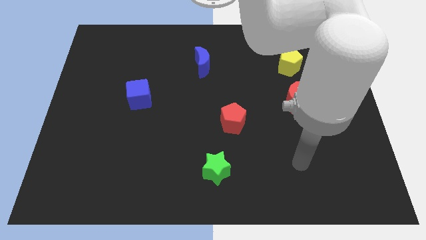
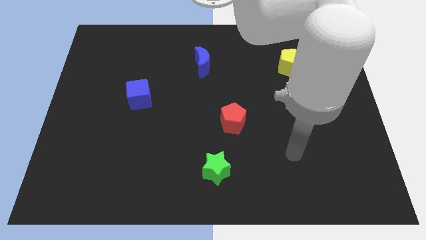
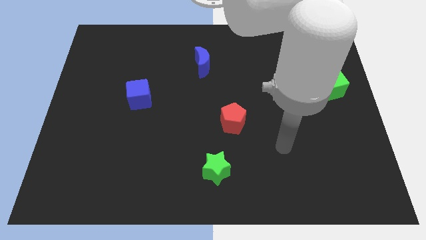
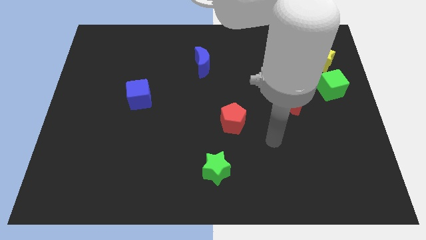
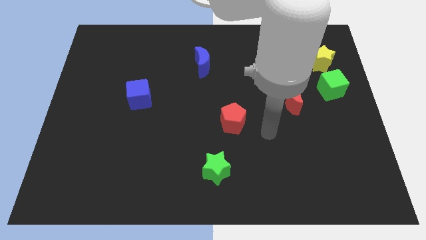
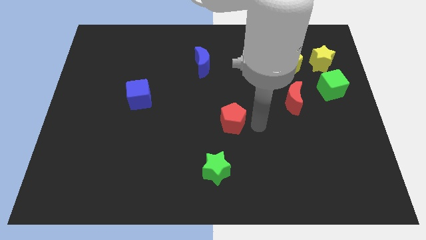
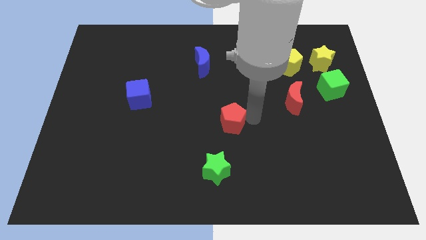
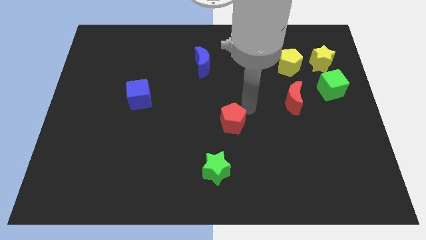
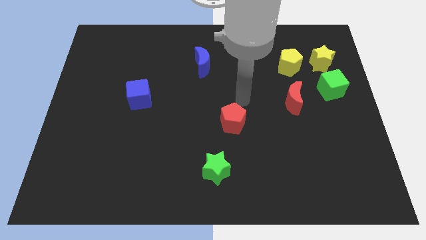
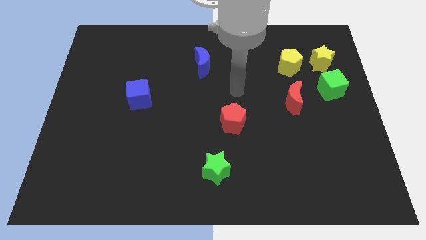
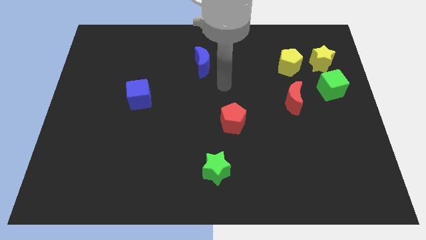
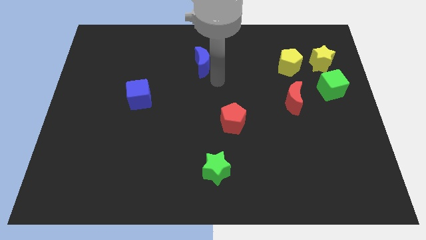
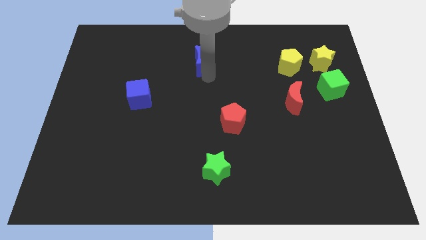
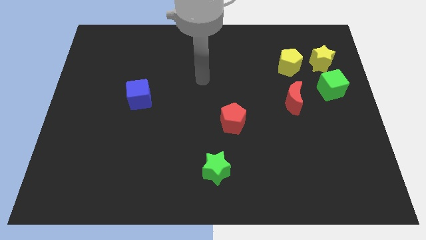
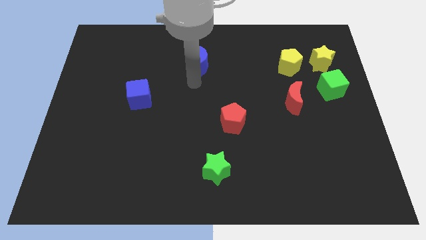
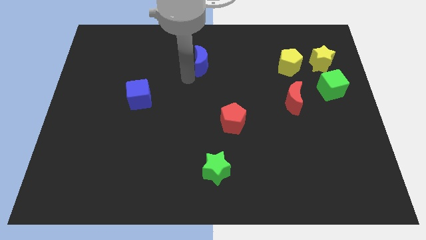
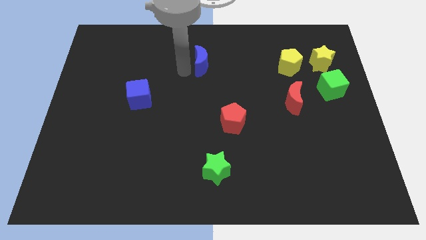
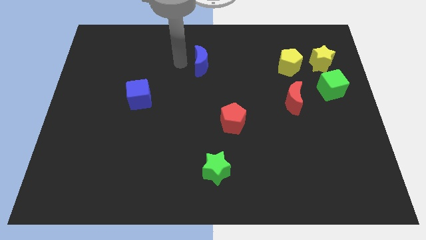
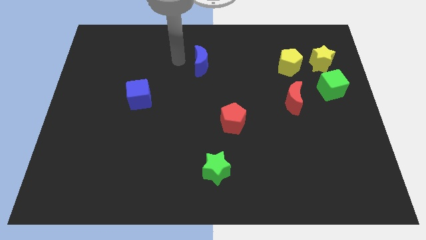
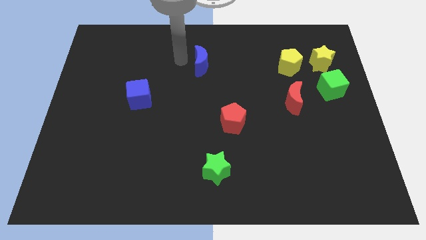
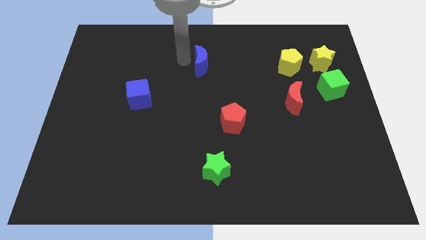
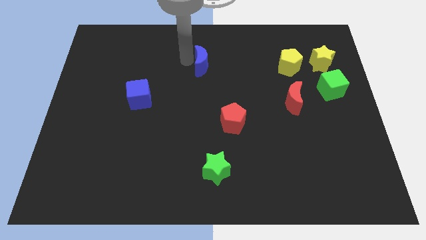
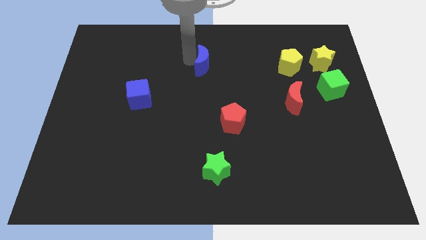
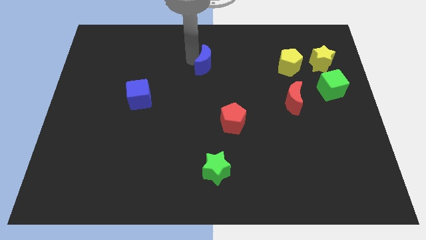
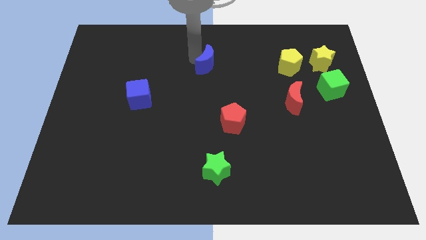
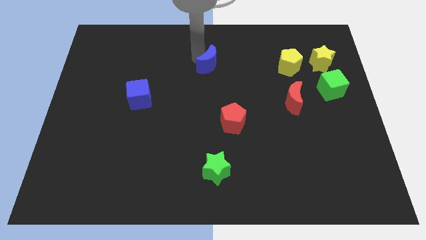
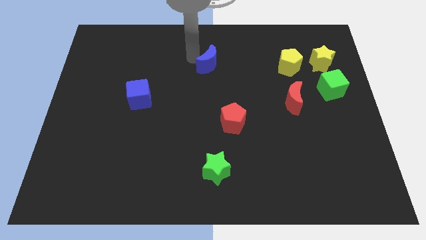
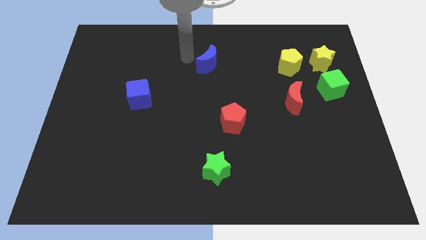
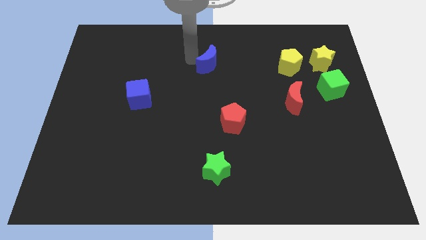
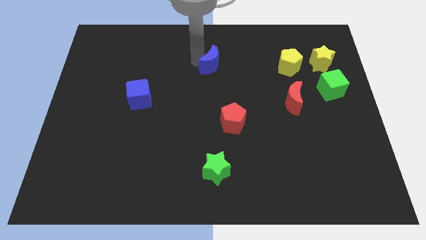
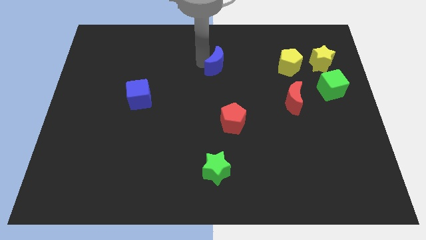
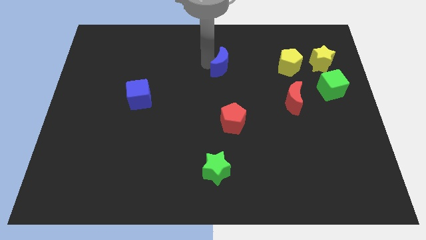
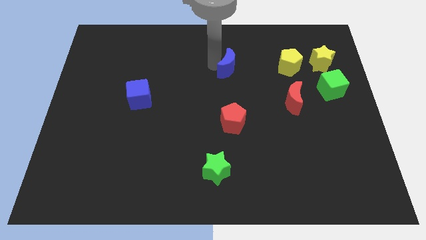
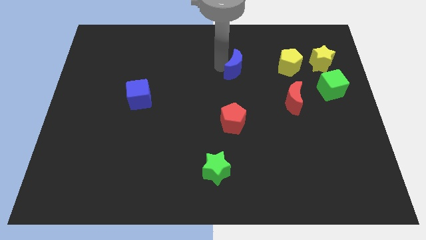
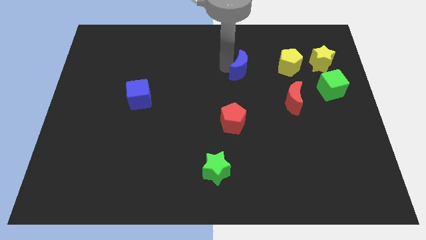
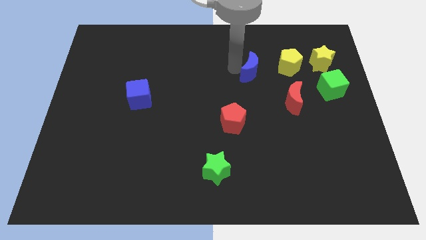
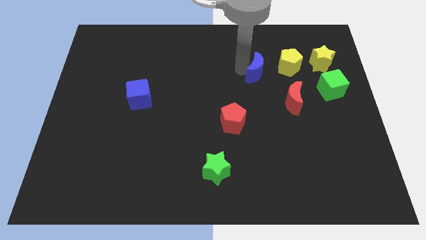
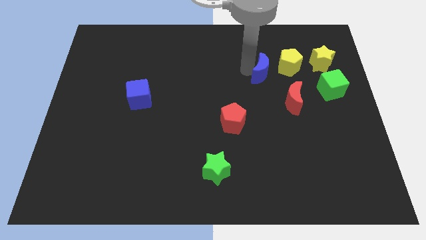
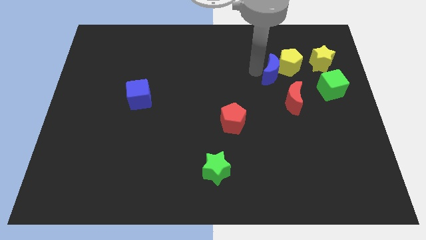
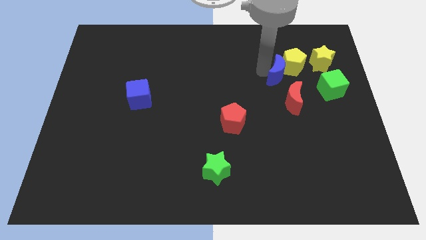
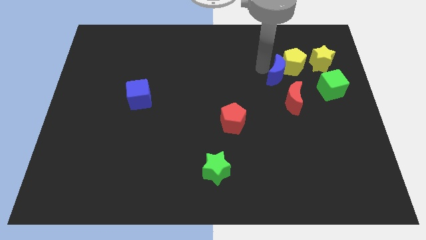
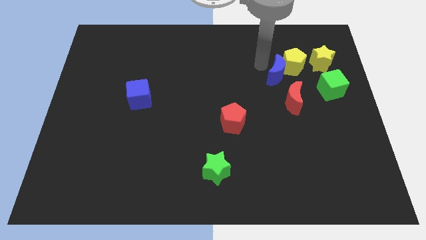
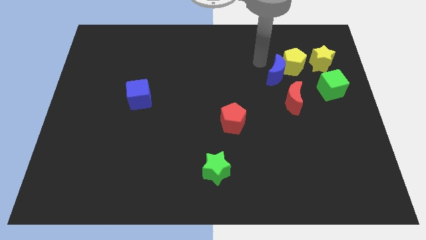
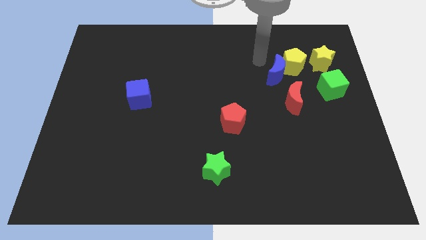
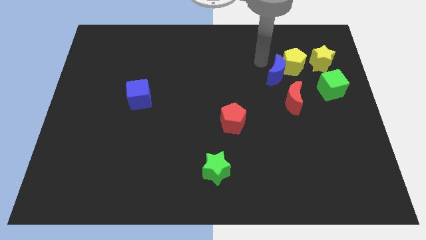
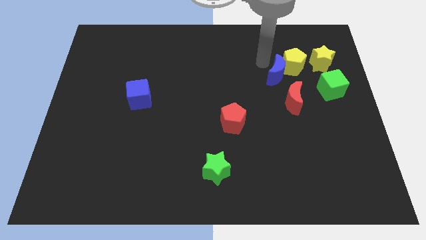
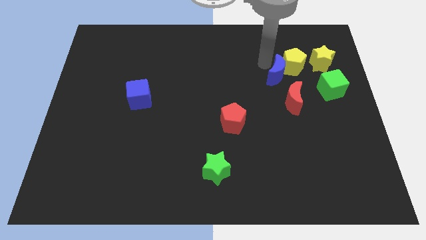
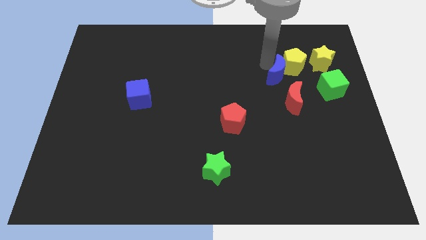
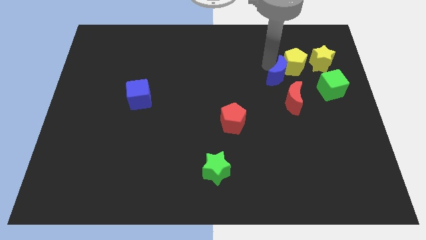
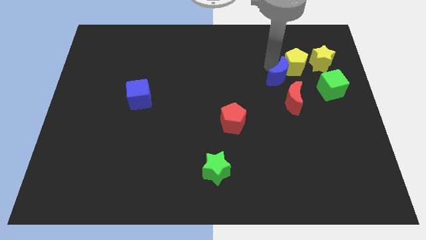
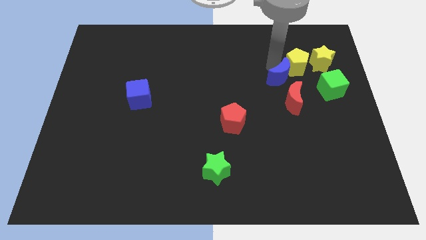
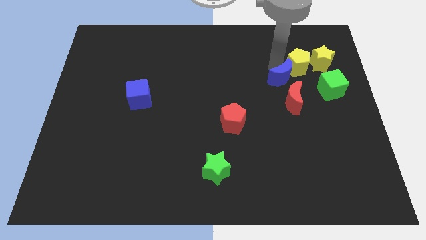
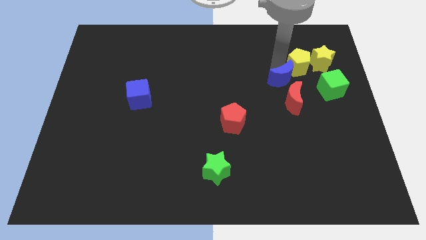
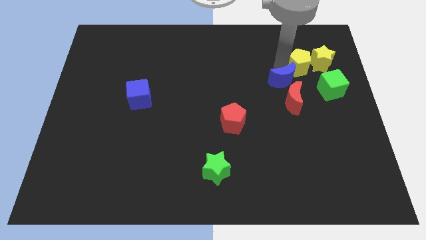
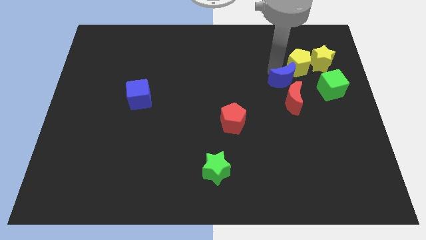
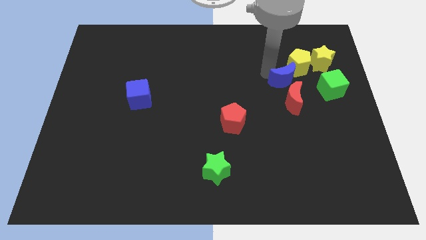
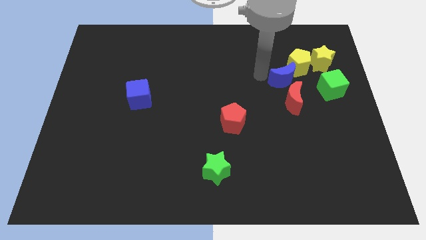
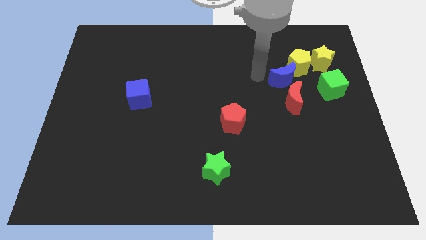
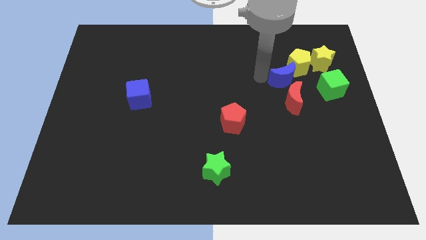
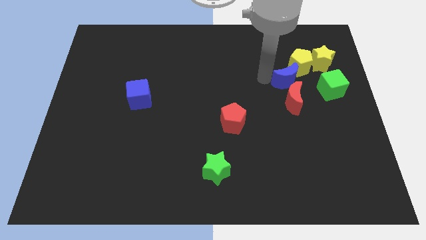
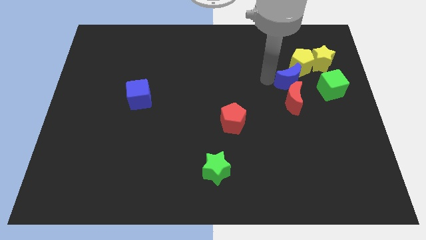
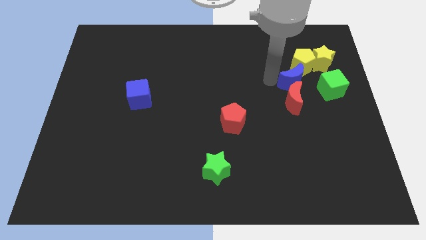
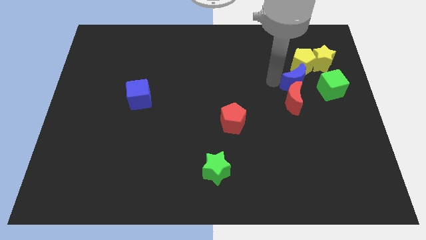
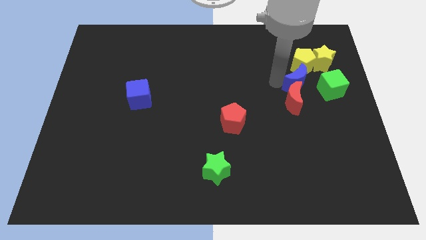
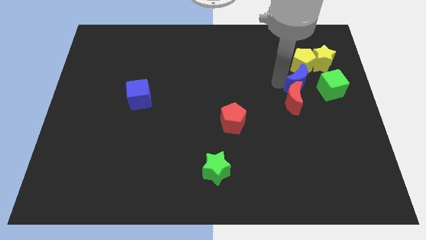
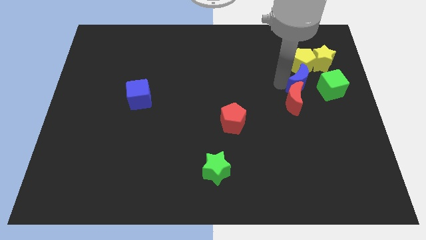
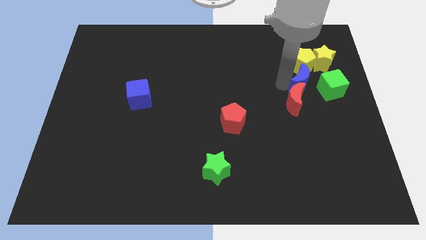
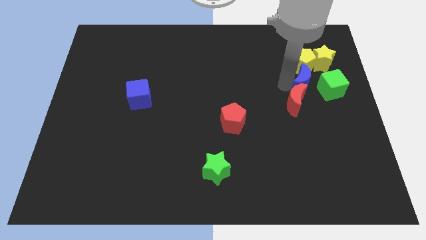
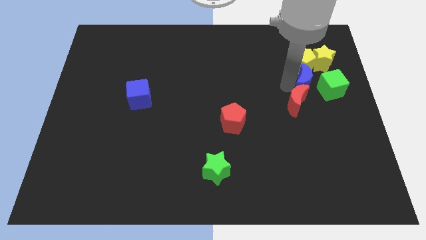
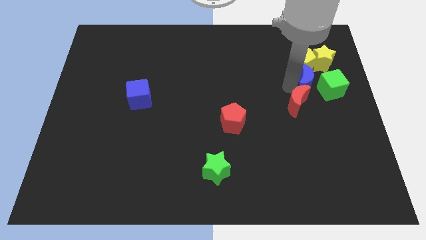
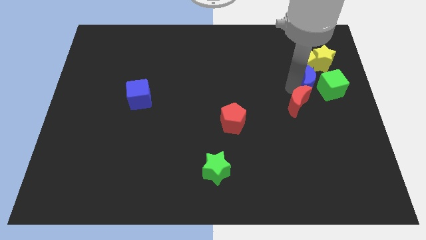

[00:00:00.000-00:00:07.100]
move the blue moon towards the green cube
